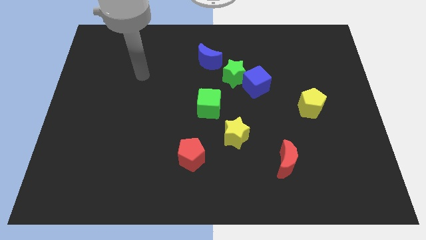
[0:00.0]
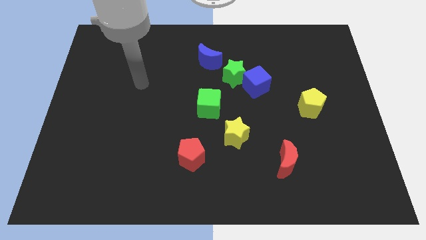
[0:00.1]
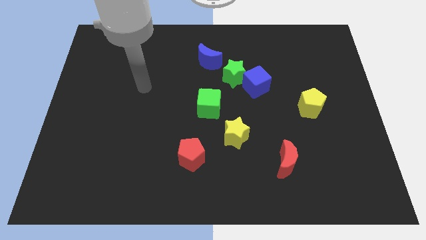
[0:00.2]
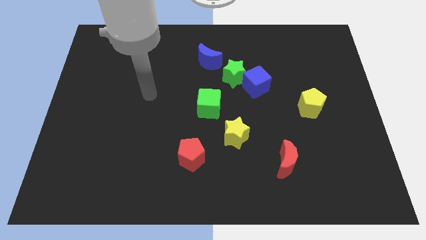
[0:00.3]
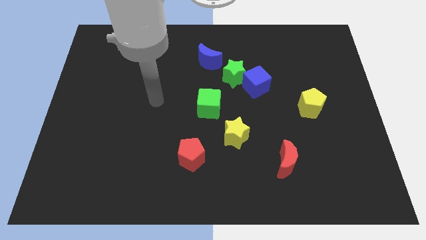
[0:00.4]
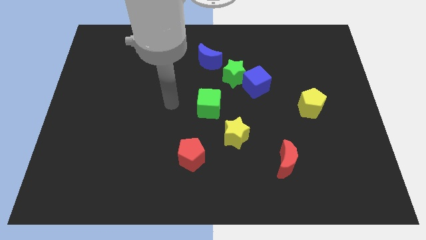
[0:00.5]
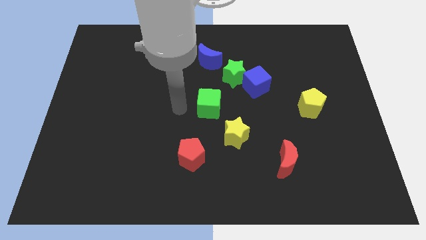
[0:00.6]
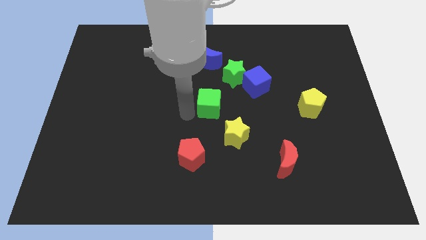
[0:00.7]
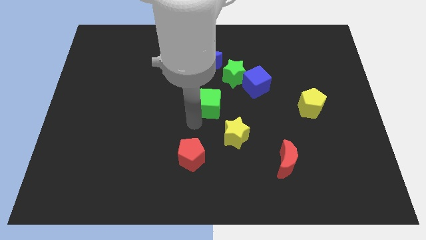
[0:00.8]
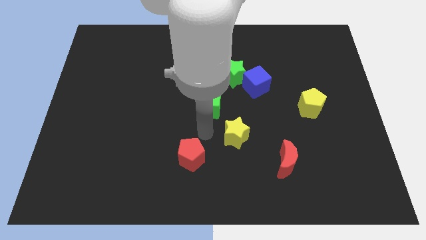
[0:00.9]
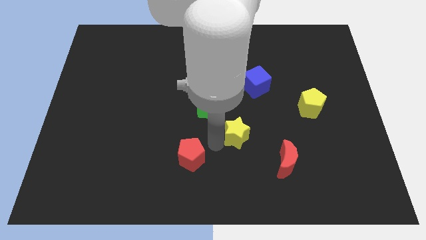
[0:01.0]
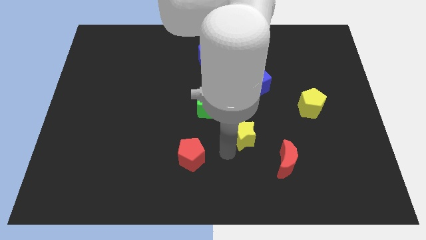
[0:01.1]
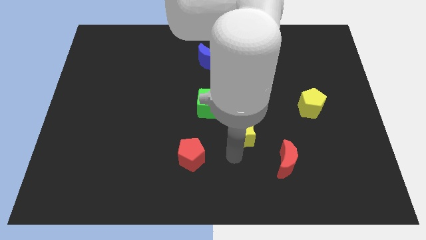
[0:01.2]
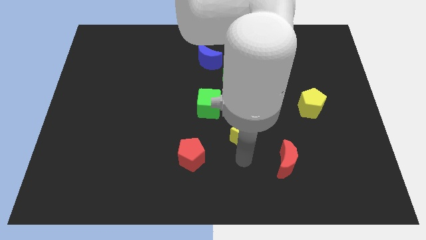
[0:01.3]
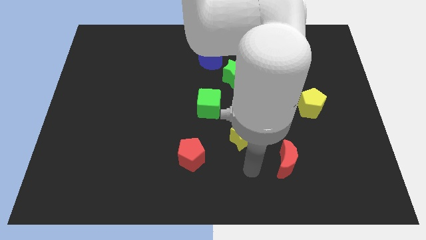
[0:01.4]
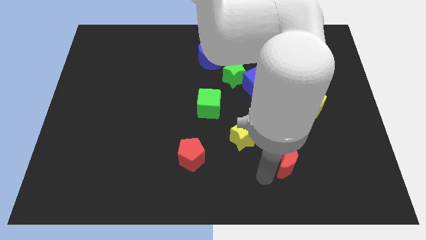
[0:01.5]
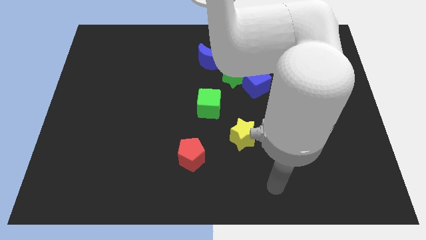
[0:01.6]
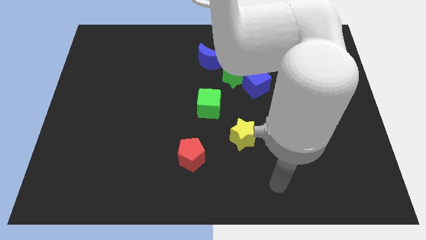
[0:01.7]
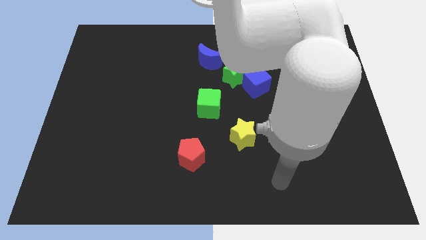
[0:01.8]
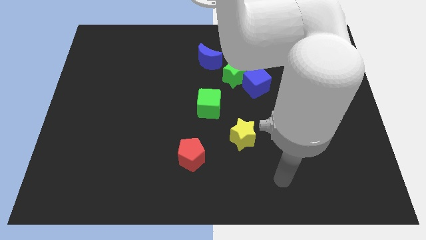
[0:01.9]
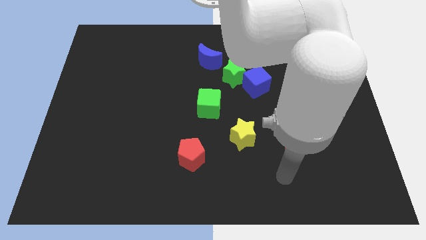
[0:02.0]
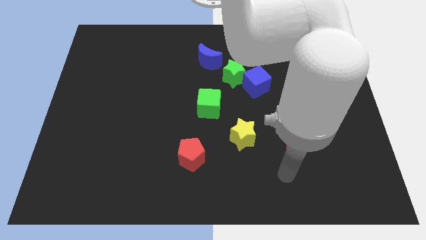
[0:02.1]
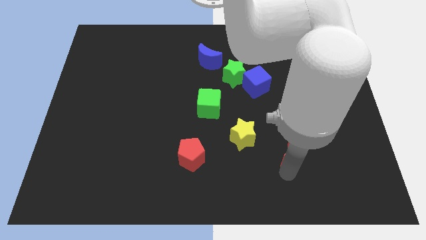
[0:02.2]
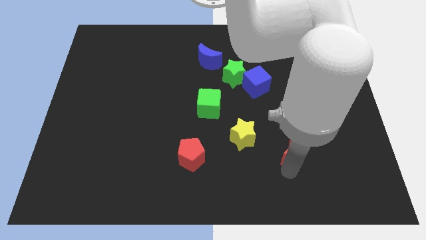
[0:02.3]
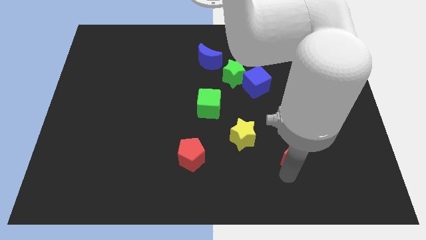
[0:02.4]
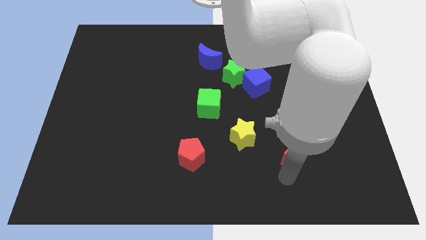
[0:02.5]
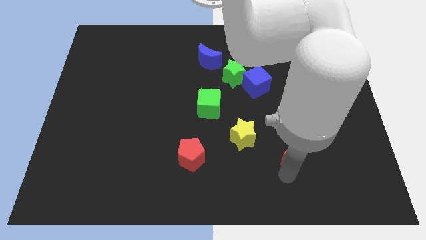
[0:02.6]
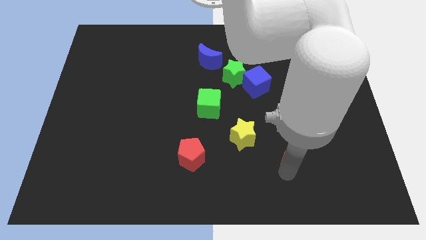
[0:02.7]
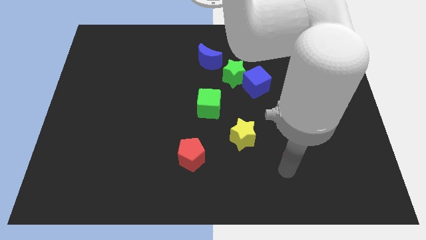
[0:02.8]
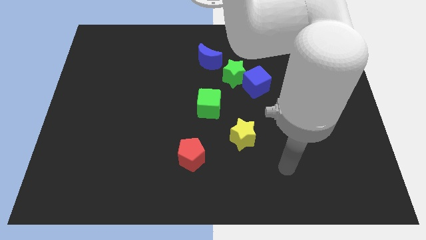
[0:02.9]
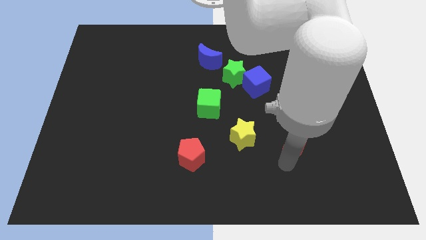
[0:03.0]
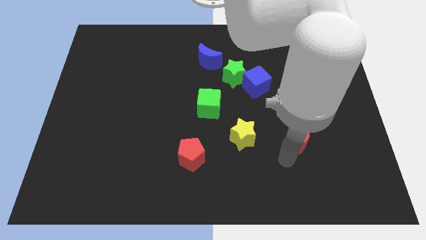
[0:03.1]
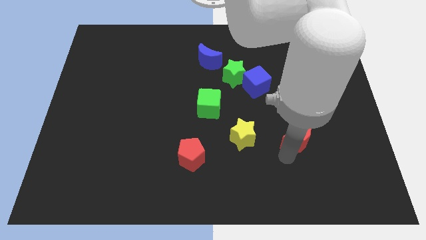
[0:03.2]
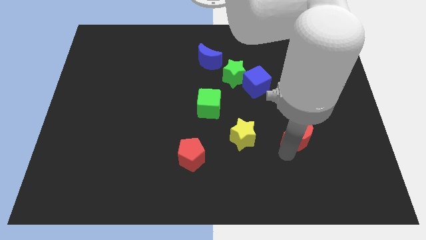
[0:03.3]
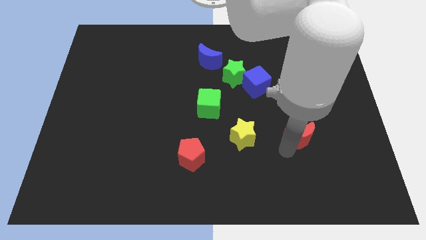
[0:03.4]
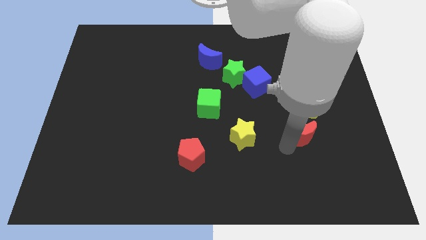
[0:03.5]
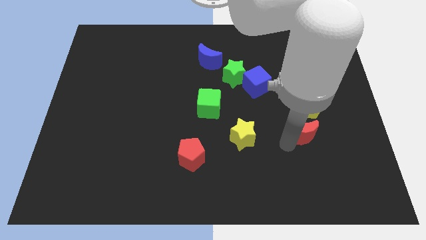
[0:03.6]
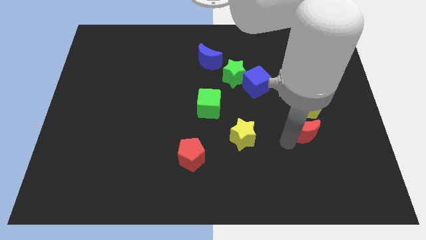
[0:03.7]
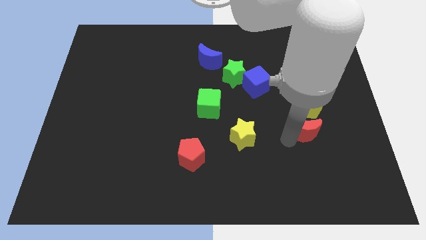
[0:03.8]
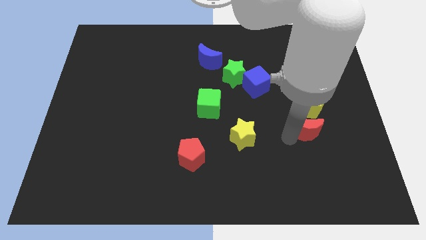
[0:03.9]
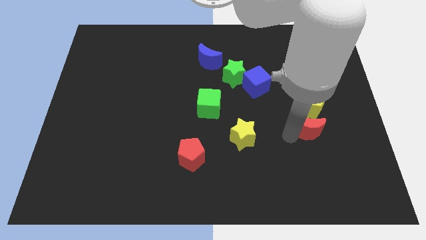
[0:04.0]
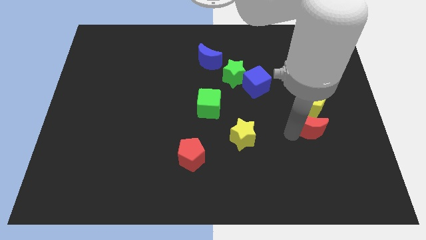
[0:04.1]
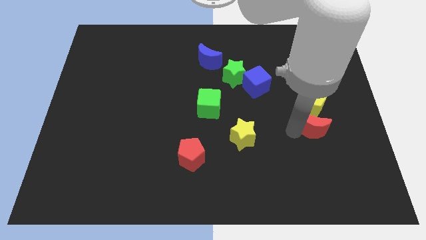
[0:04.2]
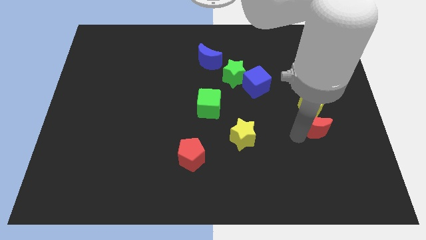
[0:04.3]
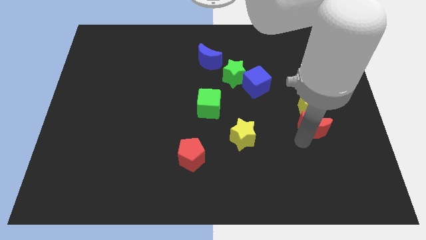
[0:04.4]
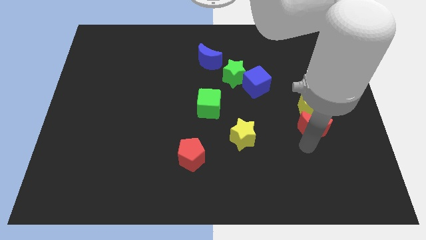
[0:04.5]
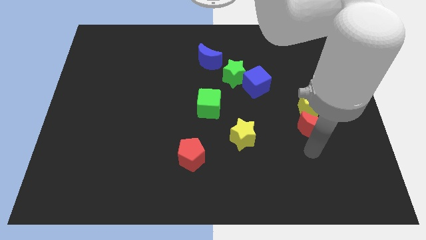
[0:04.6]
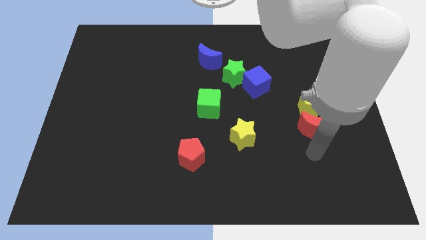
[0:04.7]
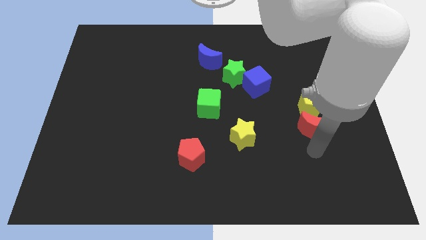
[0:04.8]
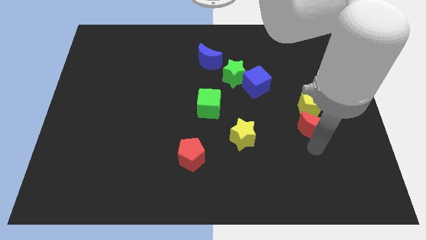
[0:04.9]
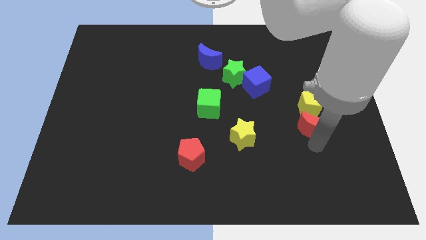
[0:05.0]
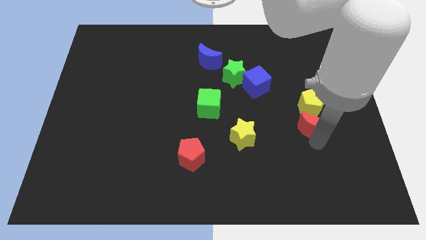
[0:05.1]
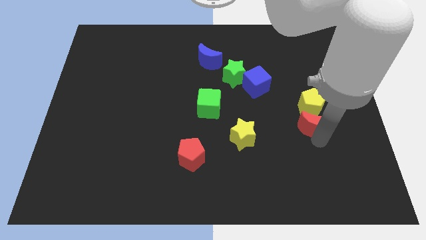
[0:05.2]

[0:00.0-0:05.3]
push the red moon close to the yellow pentagon

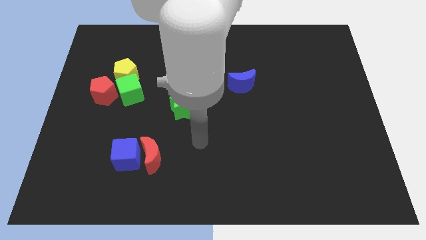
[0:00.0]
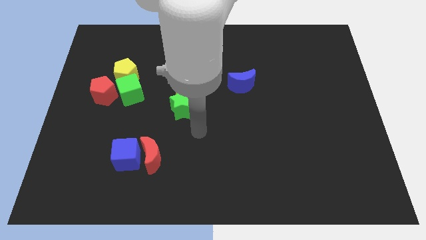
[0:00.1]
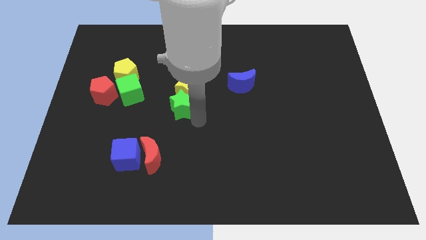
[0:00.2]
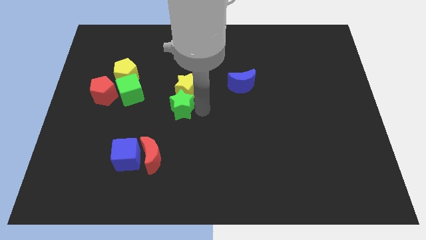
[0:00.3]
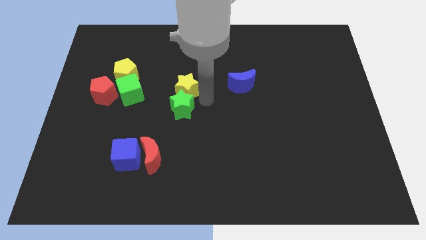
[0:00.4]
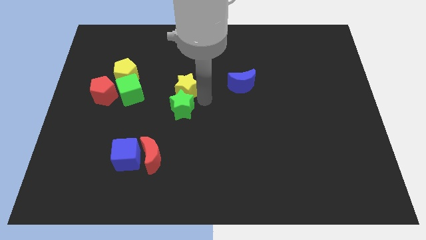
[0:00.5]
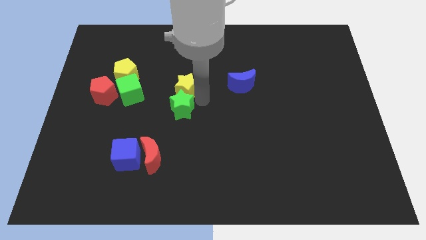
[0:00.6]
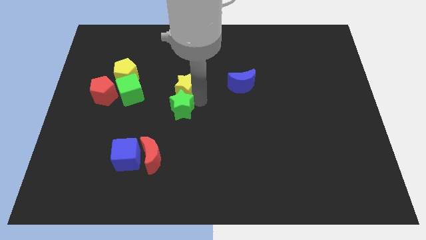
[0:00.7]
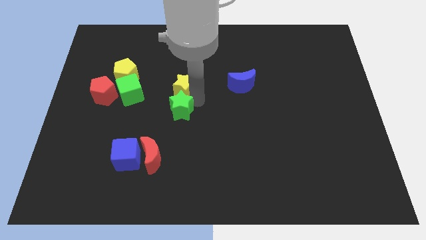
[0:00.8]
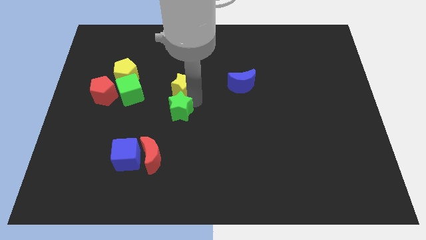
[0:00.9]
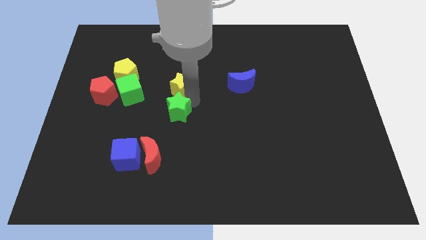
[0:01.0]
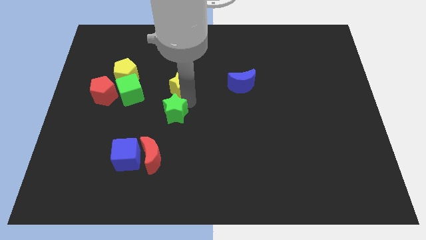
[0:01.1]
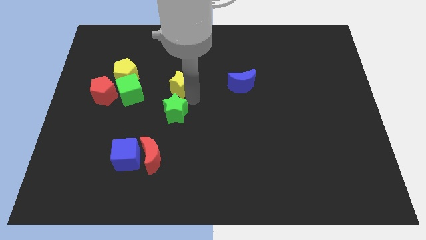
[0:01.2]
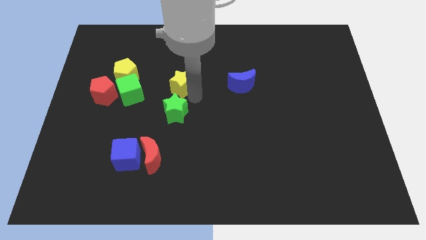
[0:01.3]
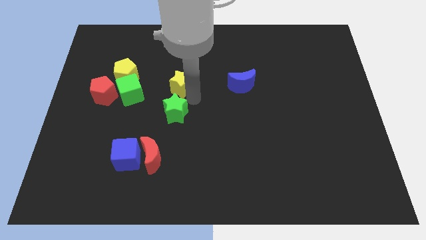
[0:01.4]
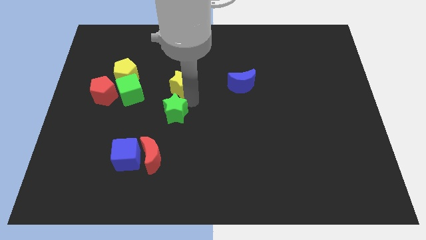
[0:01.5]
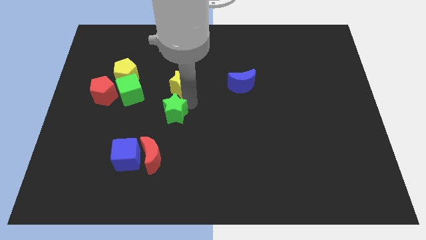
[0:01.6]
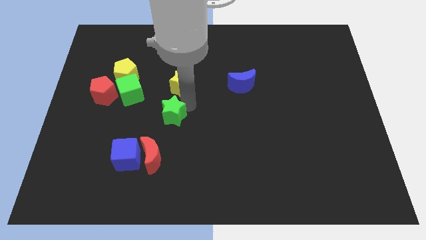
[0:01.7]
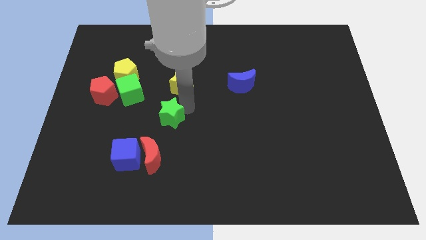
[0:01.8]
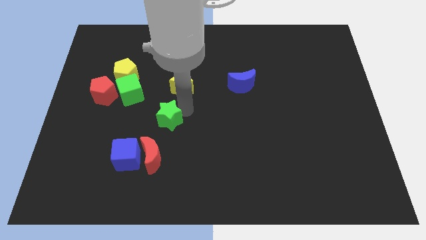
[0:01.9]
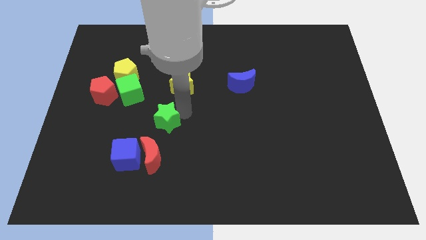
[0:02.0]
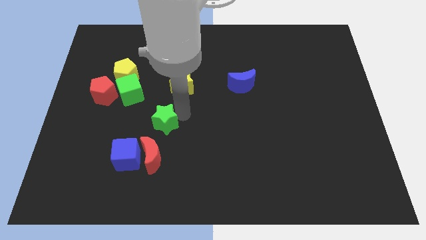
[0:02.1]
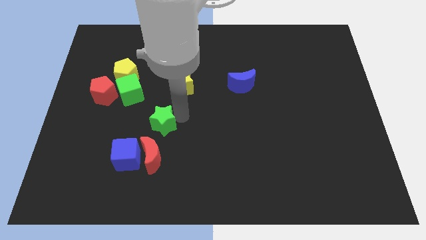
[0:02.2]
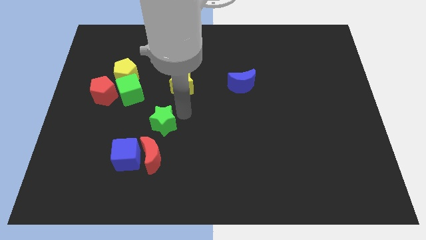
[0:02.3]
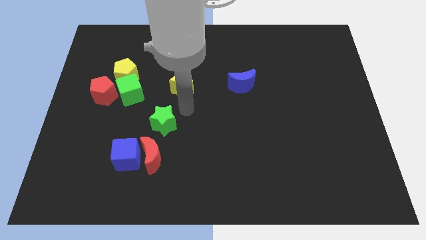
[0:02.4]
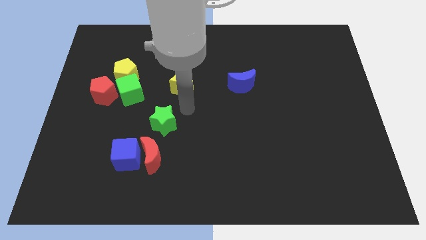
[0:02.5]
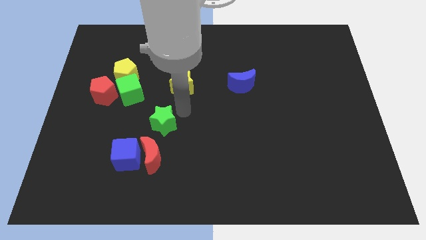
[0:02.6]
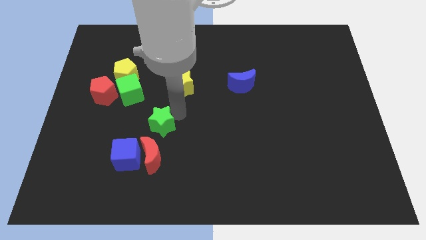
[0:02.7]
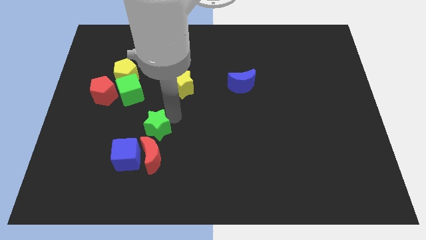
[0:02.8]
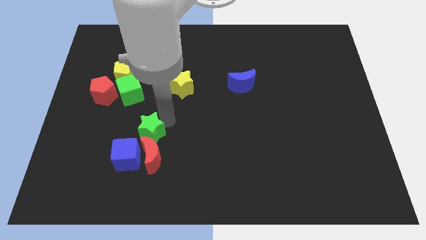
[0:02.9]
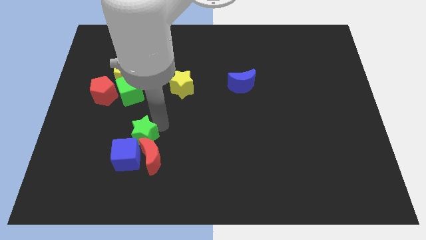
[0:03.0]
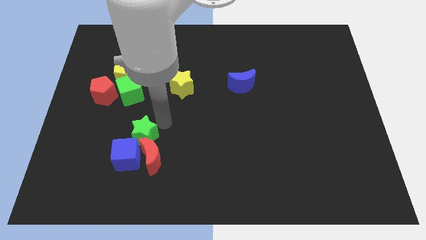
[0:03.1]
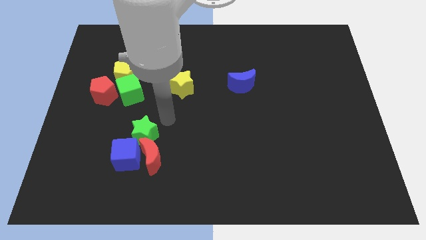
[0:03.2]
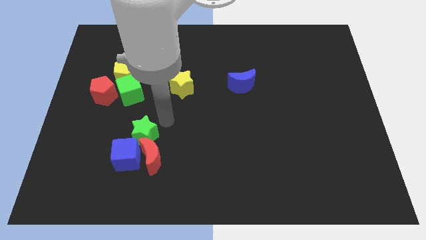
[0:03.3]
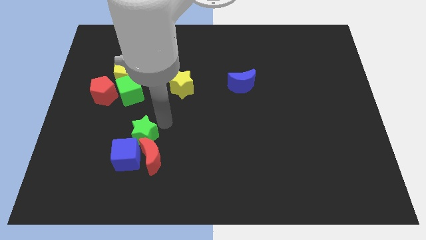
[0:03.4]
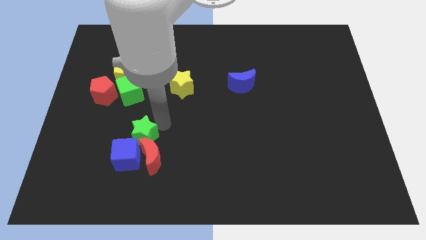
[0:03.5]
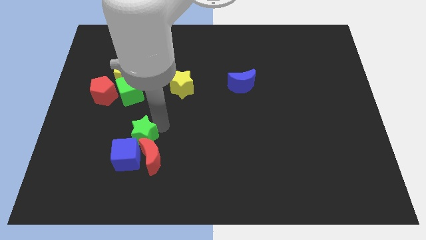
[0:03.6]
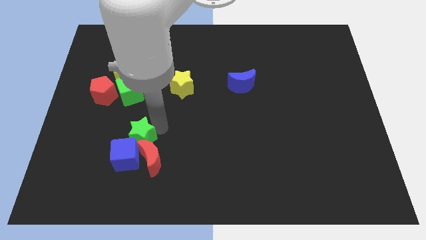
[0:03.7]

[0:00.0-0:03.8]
slide the green star towards the blue cube
